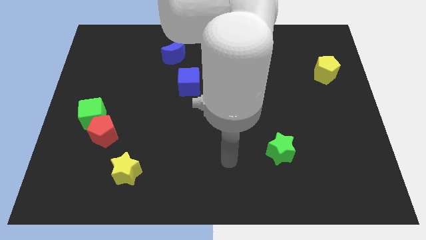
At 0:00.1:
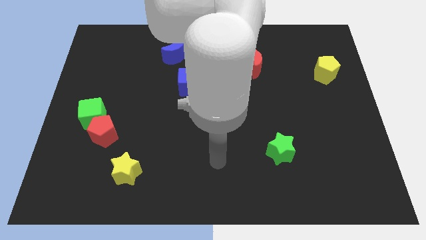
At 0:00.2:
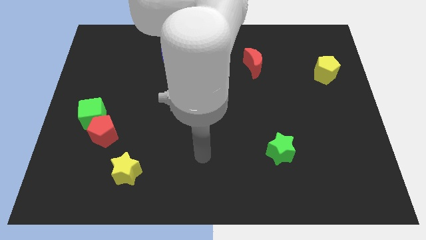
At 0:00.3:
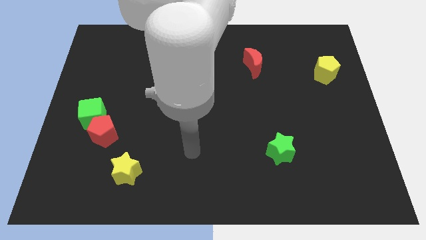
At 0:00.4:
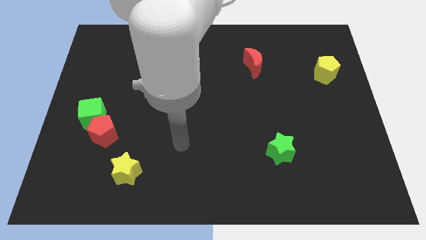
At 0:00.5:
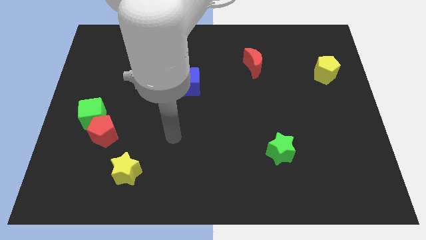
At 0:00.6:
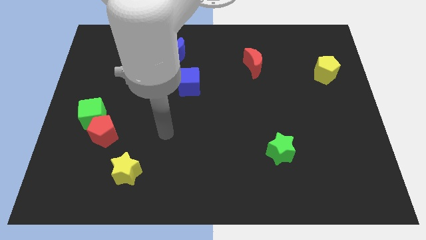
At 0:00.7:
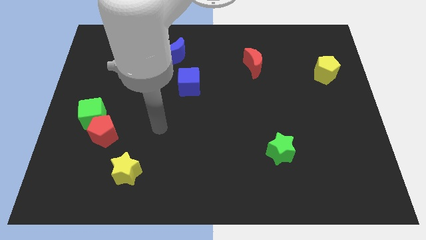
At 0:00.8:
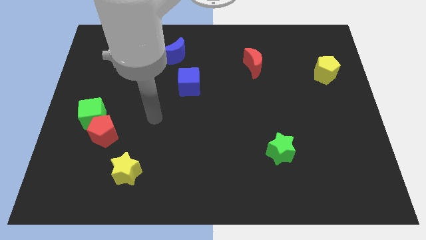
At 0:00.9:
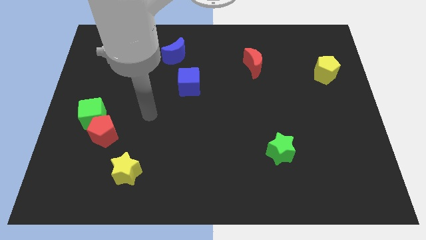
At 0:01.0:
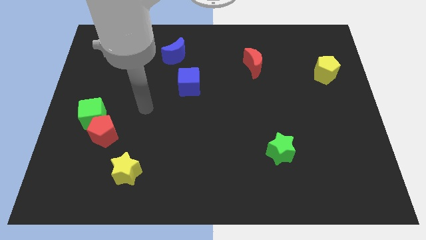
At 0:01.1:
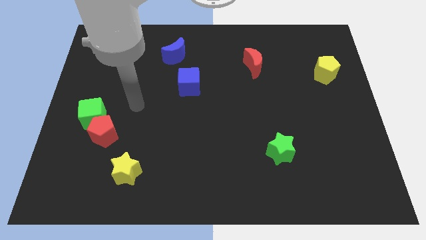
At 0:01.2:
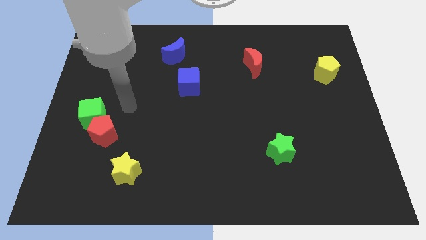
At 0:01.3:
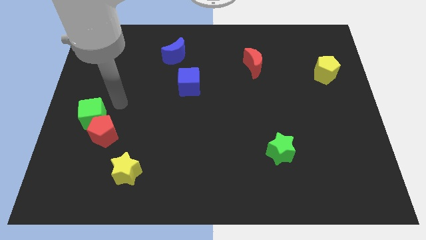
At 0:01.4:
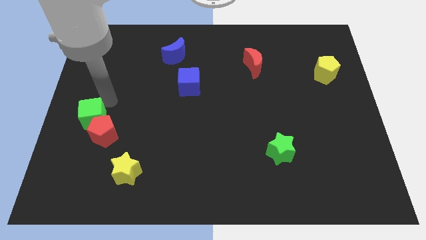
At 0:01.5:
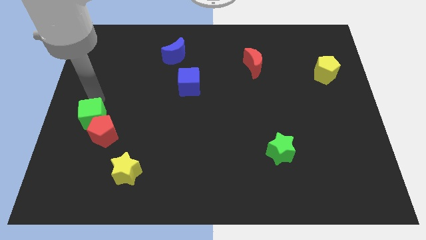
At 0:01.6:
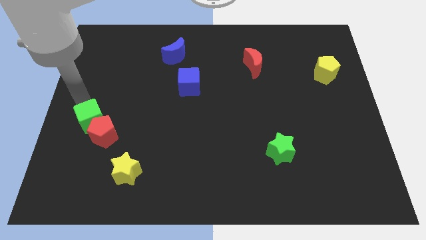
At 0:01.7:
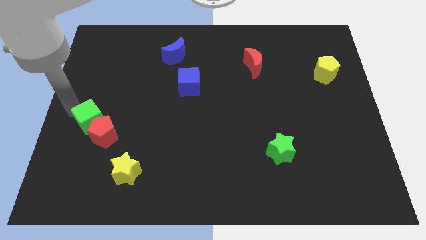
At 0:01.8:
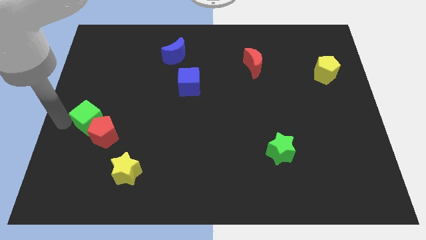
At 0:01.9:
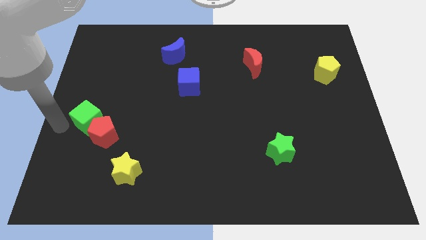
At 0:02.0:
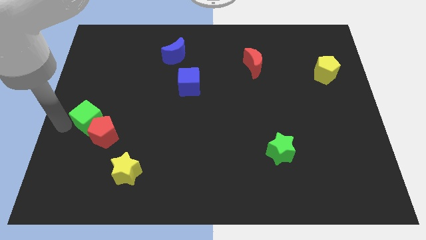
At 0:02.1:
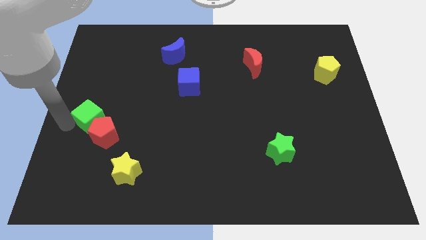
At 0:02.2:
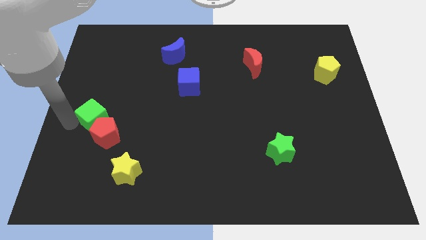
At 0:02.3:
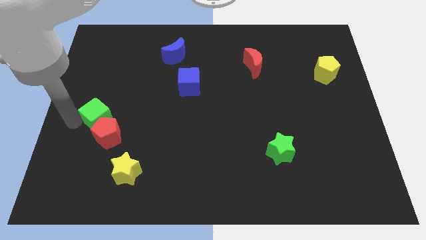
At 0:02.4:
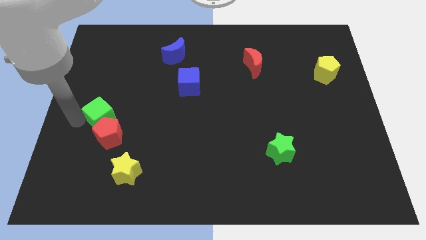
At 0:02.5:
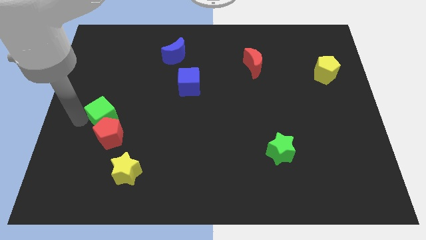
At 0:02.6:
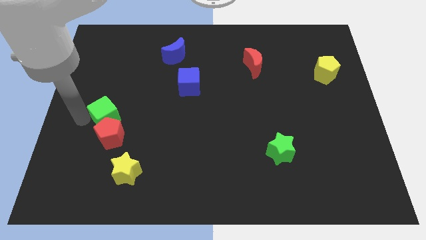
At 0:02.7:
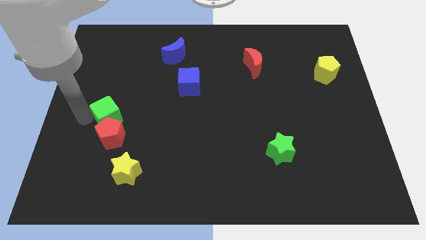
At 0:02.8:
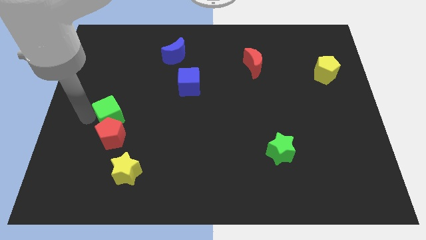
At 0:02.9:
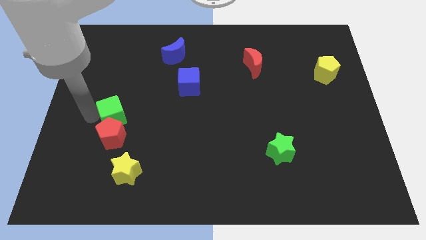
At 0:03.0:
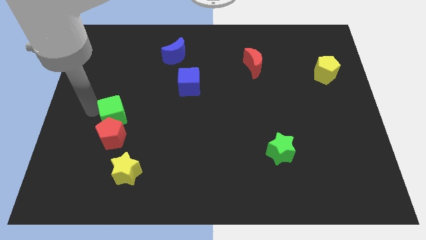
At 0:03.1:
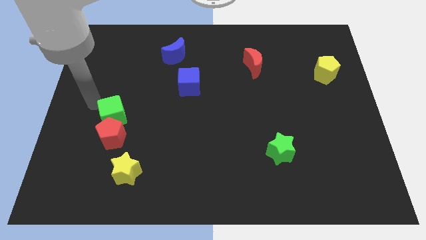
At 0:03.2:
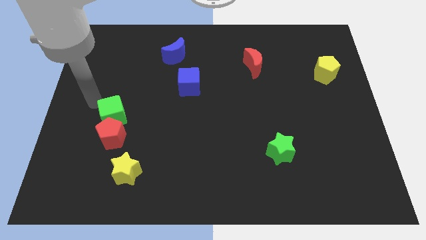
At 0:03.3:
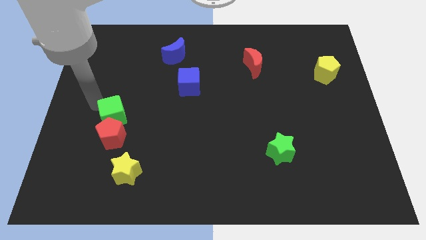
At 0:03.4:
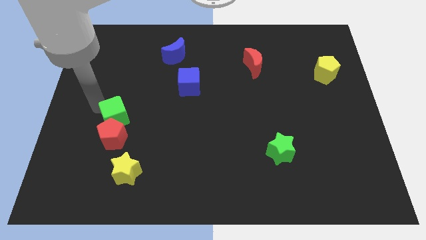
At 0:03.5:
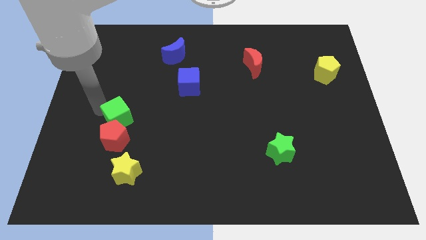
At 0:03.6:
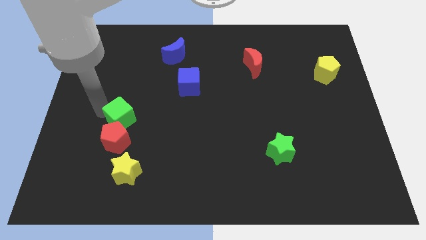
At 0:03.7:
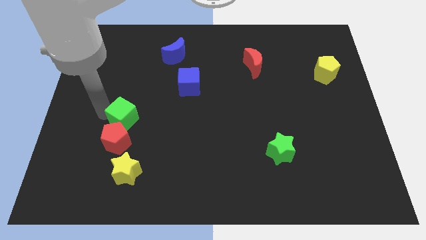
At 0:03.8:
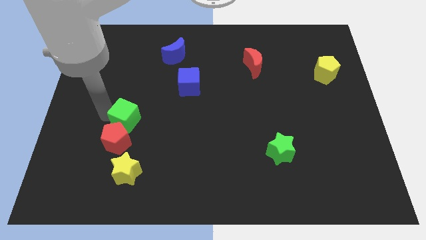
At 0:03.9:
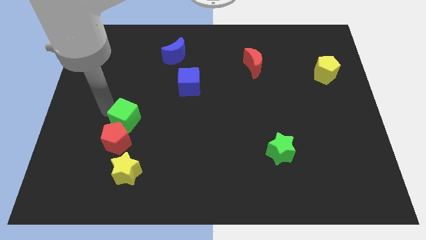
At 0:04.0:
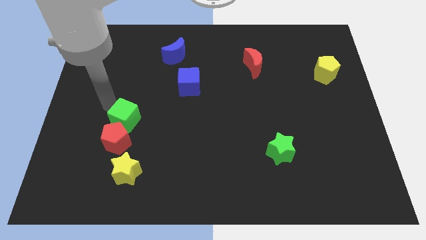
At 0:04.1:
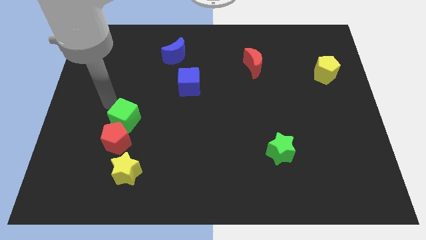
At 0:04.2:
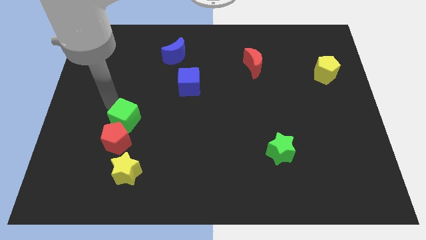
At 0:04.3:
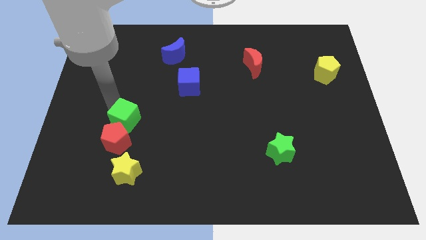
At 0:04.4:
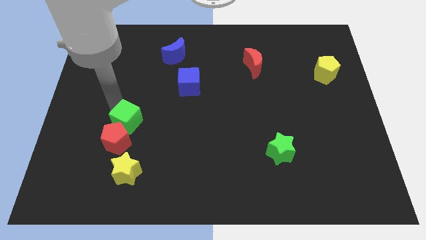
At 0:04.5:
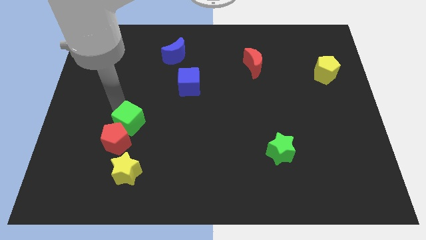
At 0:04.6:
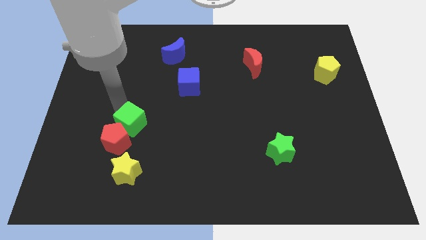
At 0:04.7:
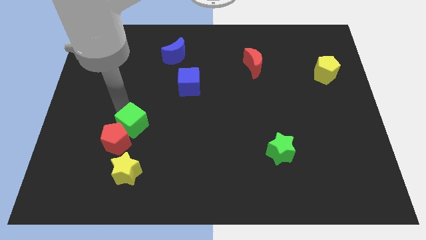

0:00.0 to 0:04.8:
move the green cube a little downwards and right

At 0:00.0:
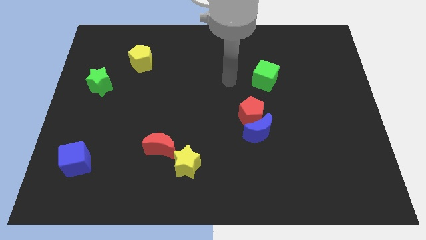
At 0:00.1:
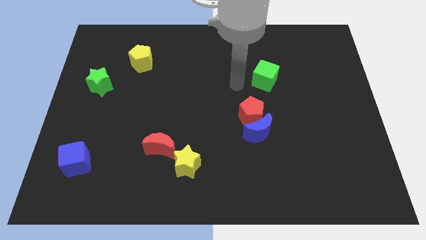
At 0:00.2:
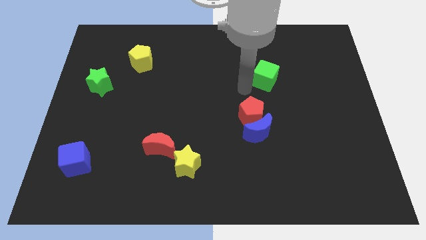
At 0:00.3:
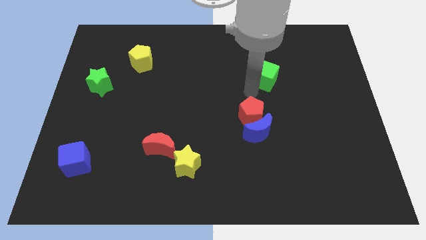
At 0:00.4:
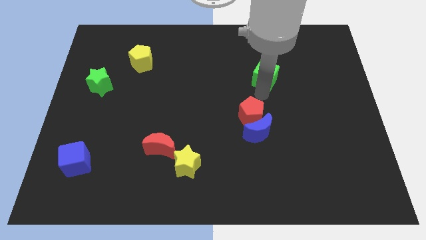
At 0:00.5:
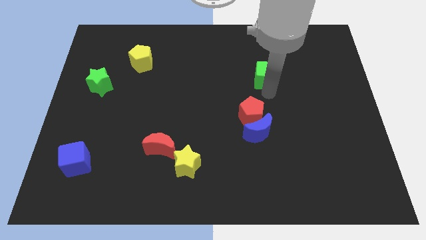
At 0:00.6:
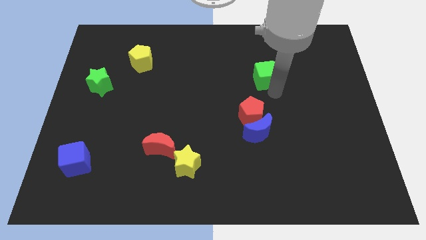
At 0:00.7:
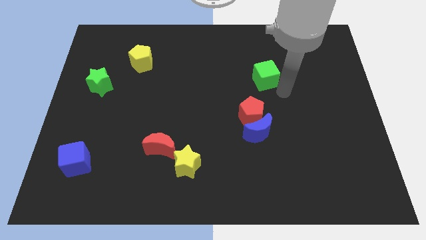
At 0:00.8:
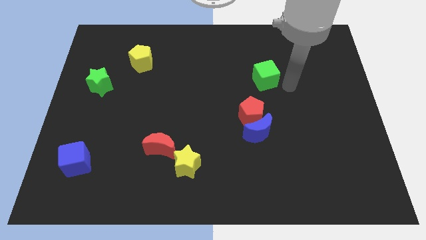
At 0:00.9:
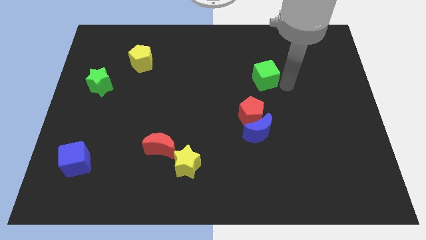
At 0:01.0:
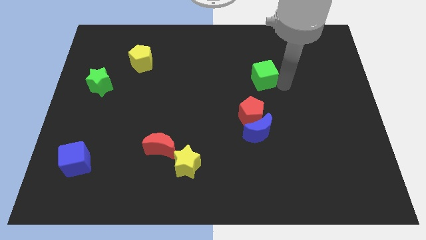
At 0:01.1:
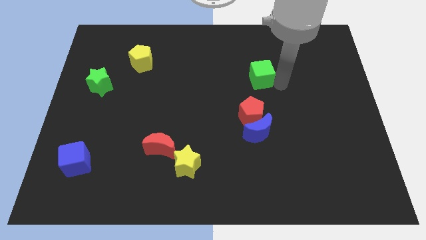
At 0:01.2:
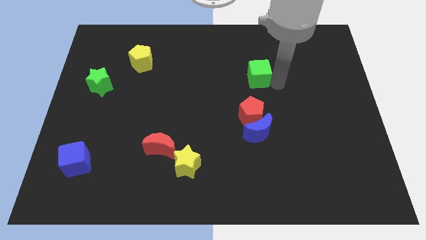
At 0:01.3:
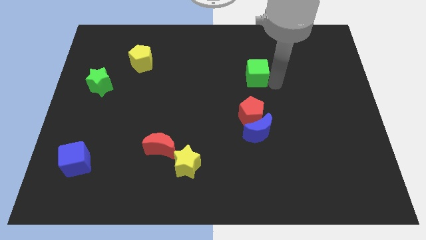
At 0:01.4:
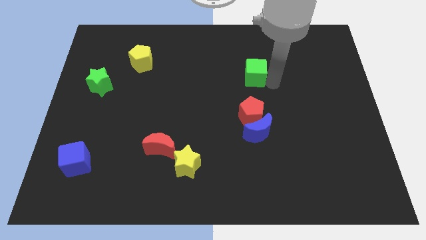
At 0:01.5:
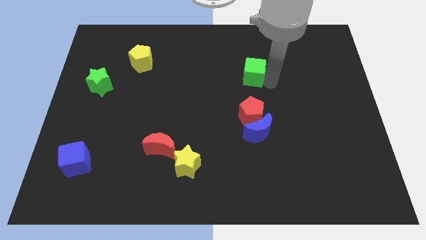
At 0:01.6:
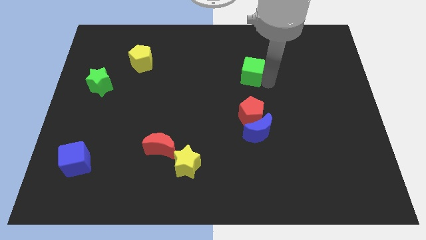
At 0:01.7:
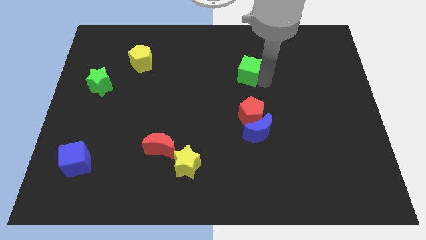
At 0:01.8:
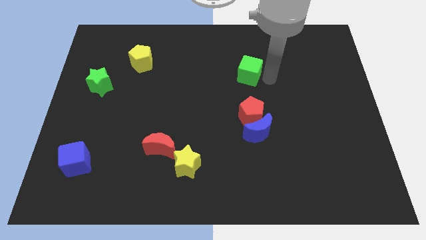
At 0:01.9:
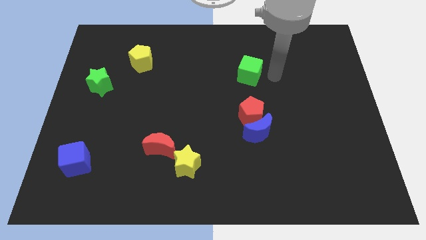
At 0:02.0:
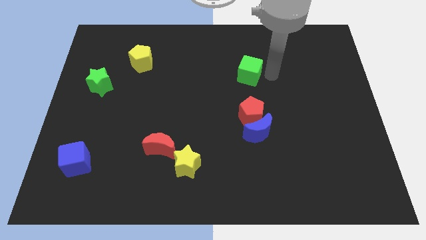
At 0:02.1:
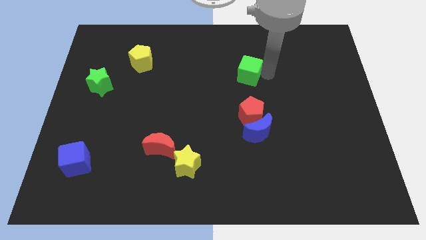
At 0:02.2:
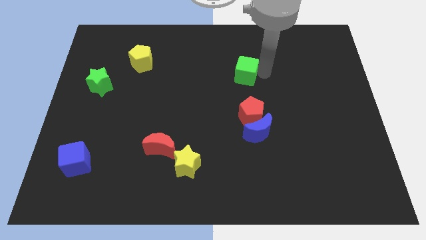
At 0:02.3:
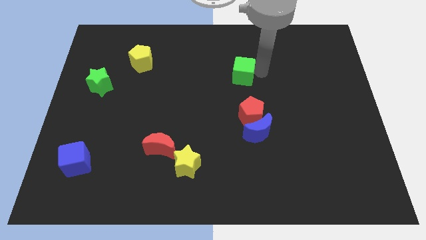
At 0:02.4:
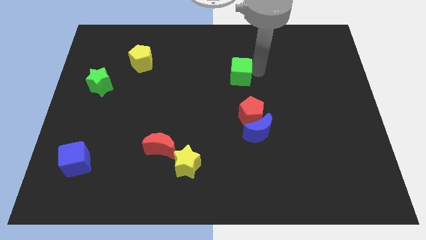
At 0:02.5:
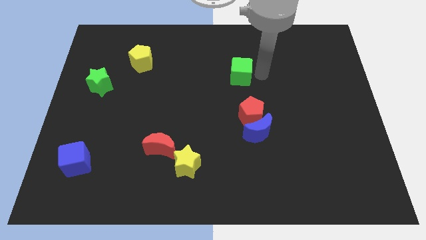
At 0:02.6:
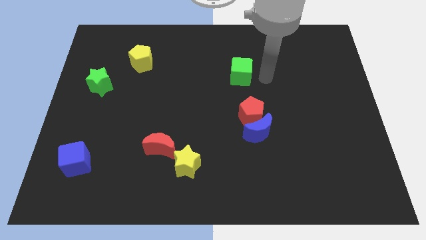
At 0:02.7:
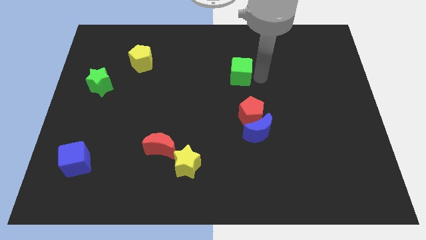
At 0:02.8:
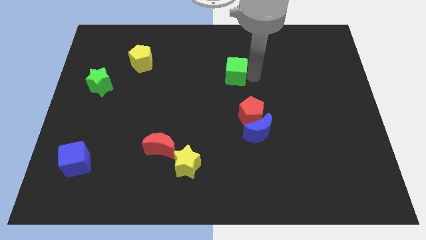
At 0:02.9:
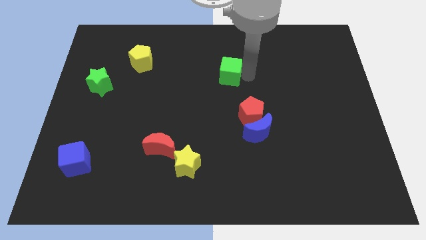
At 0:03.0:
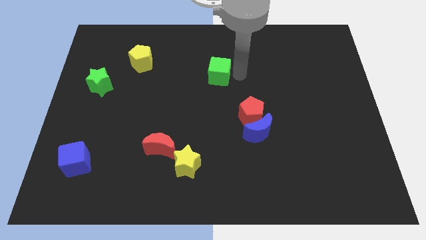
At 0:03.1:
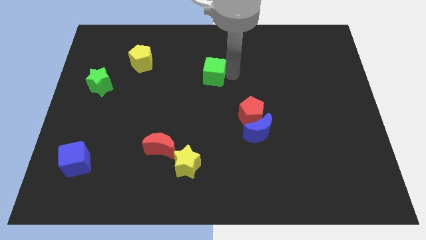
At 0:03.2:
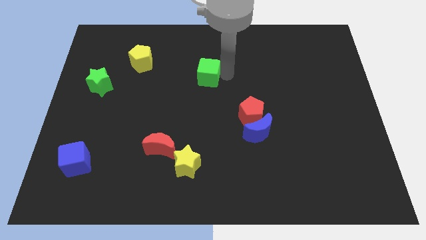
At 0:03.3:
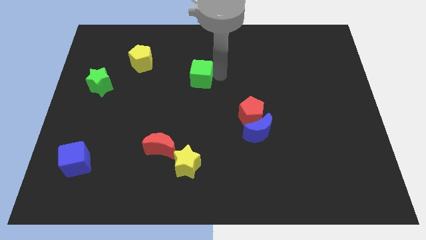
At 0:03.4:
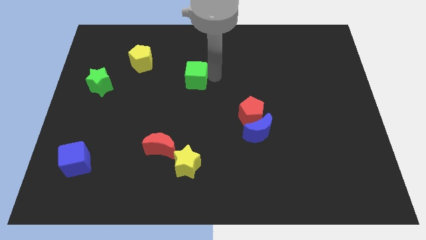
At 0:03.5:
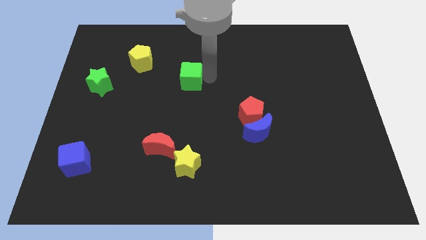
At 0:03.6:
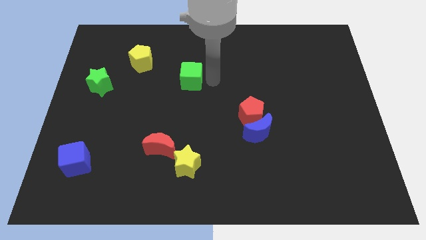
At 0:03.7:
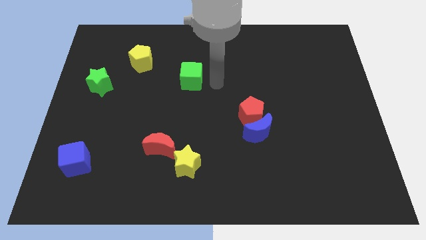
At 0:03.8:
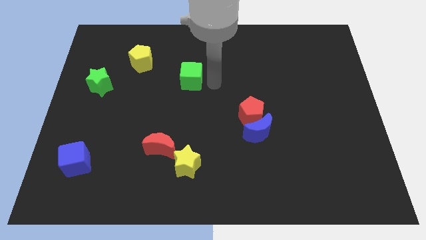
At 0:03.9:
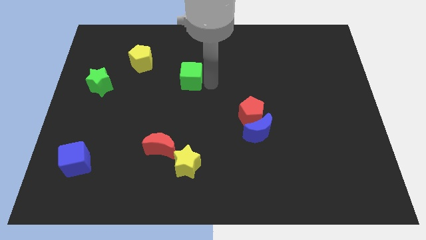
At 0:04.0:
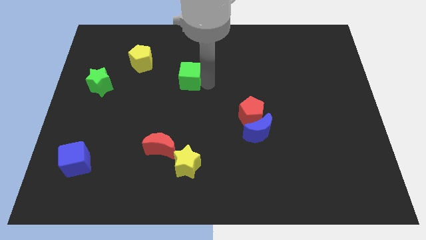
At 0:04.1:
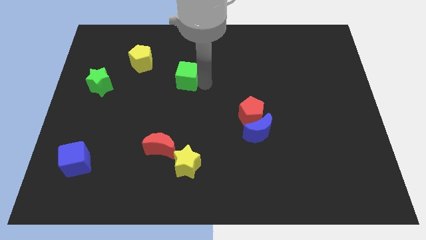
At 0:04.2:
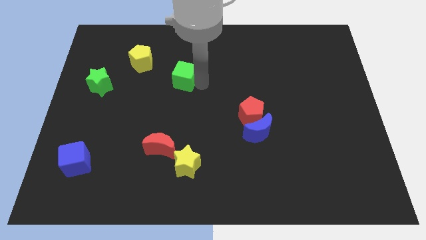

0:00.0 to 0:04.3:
slide the green cube to the left
